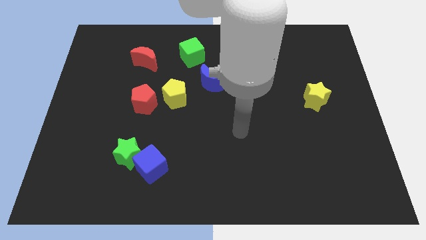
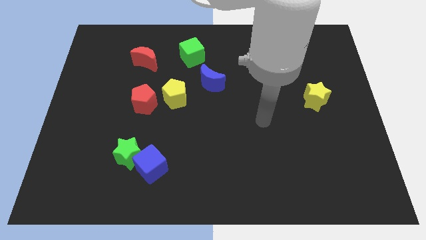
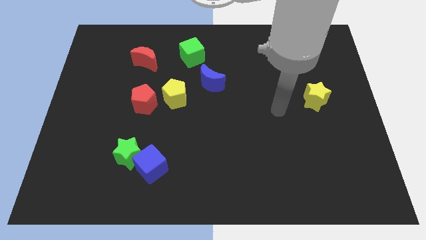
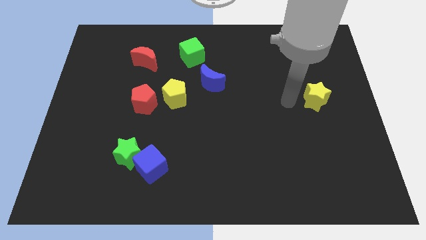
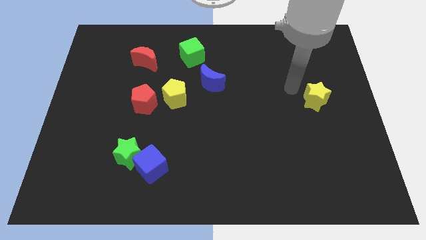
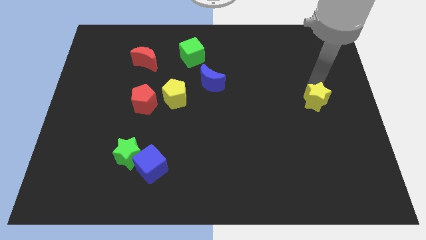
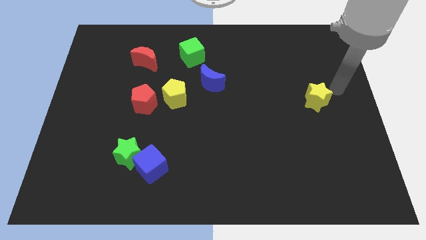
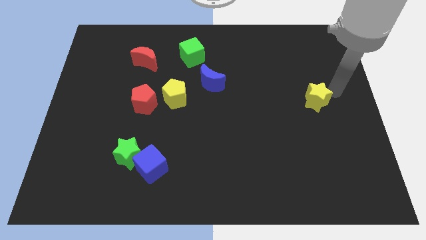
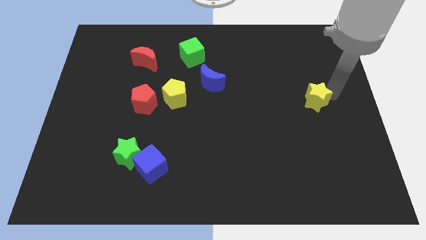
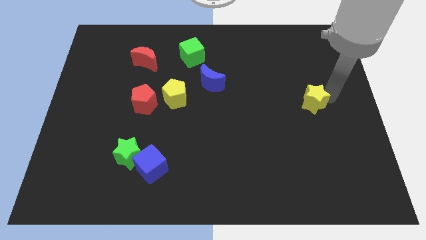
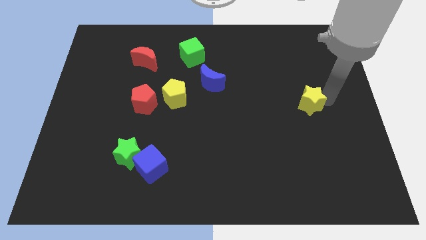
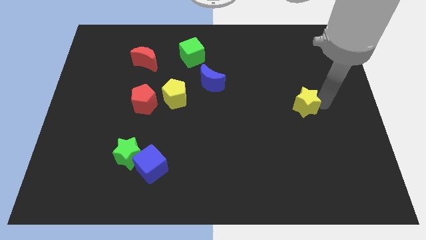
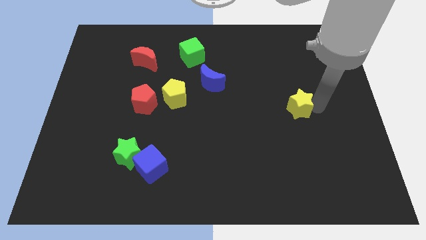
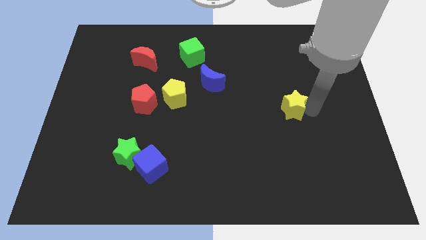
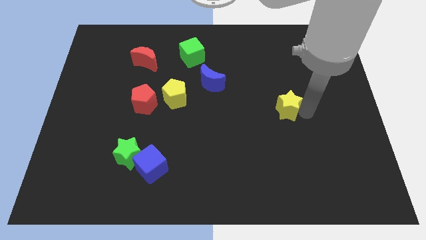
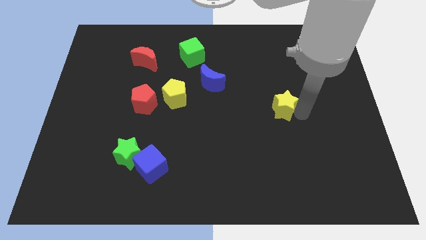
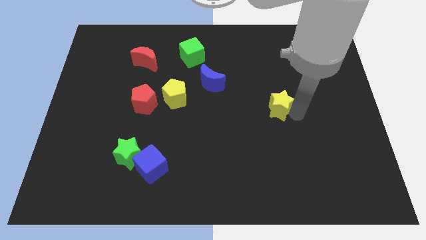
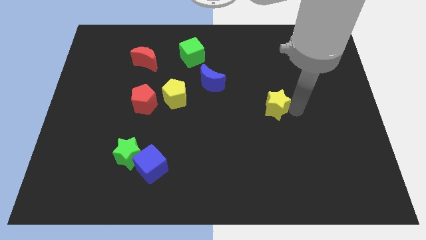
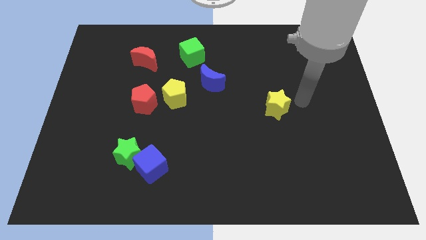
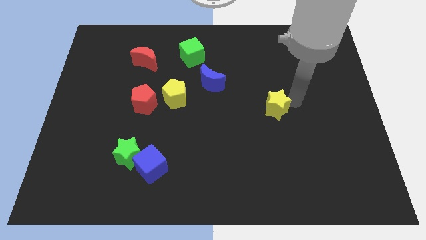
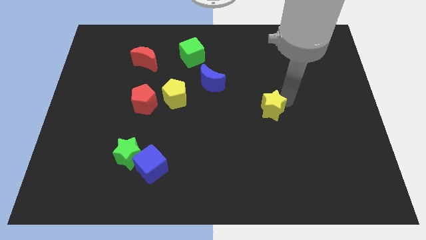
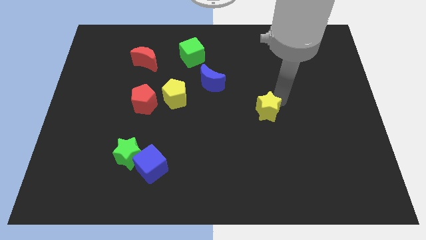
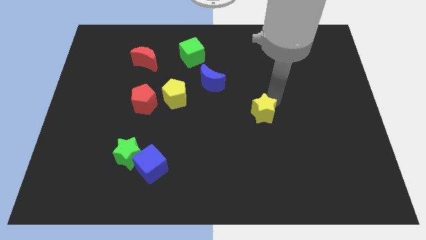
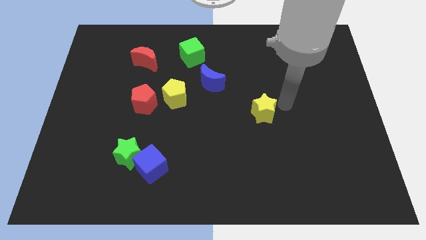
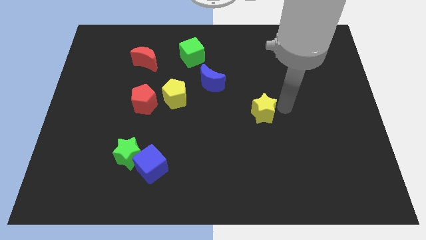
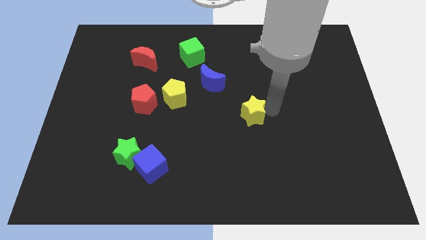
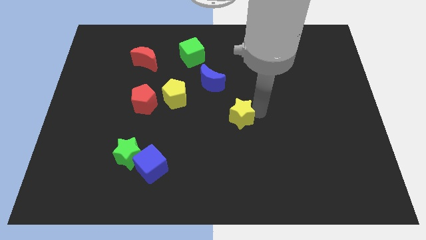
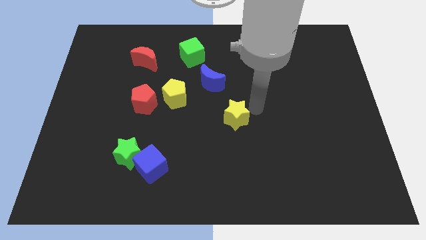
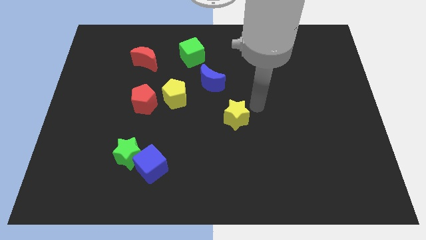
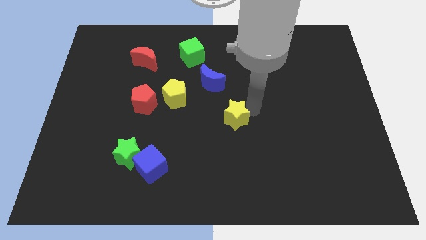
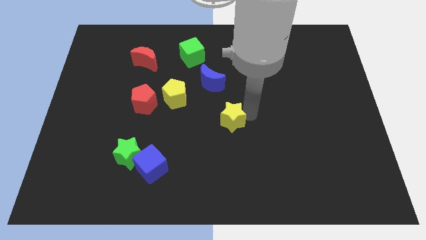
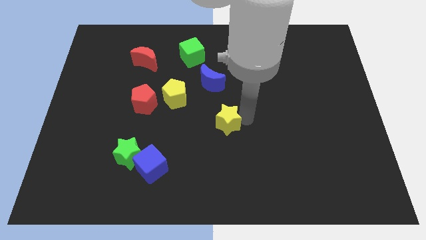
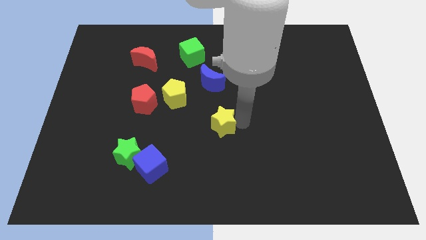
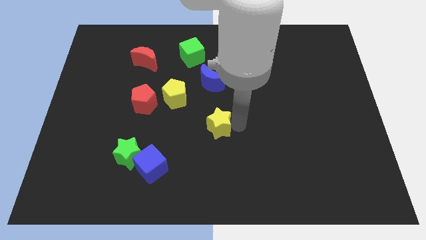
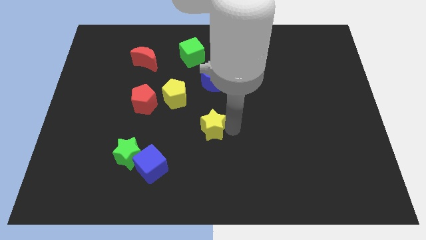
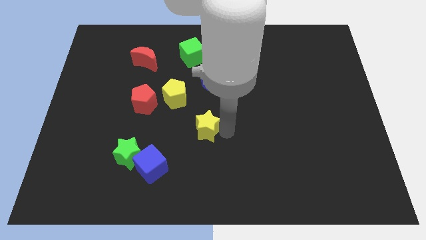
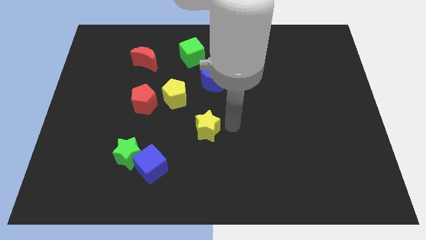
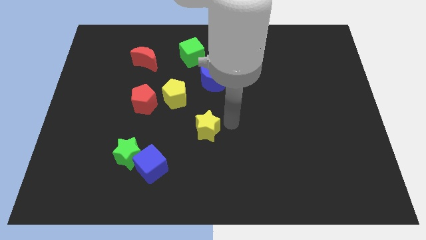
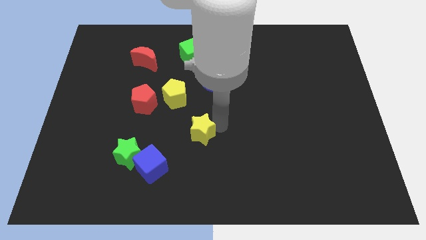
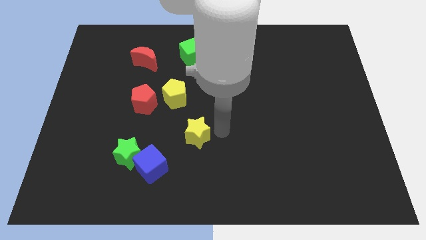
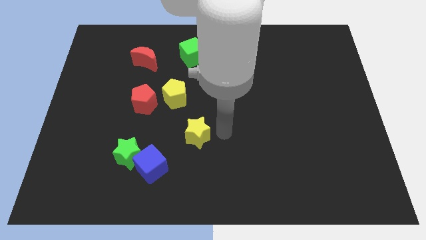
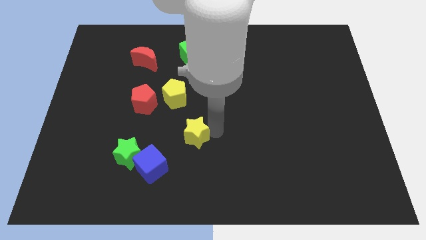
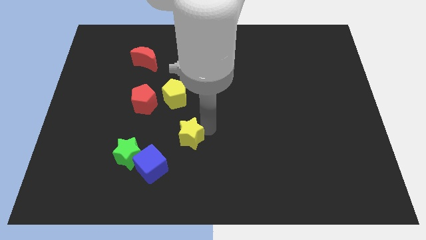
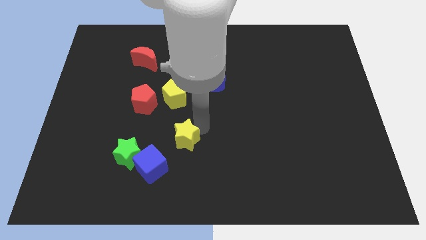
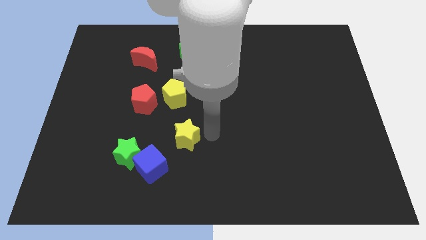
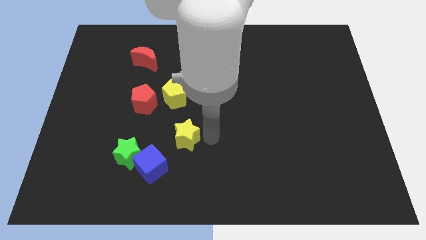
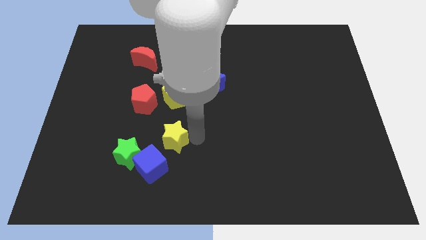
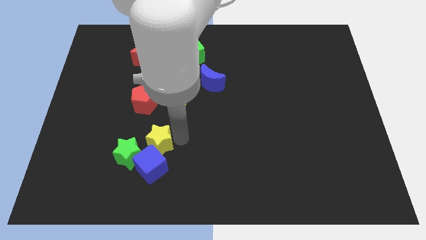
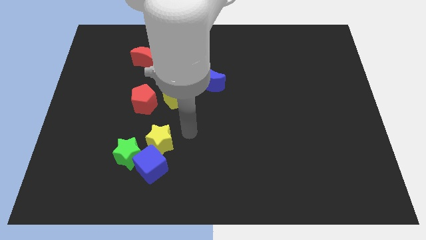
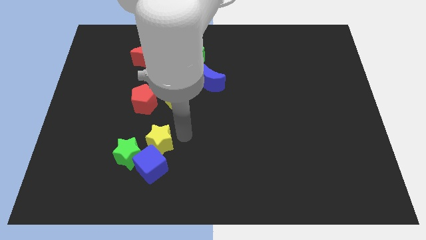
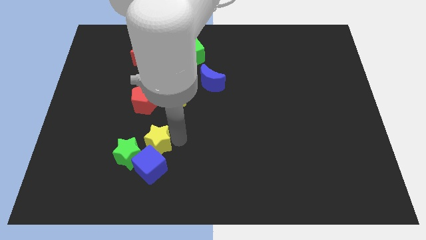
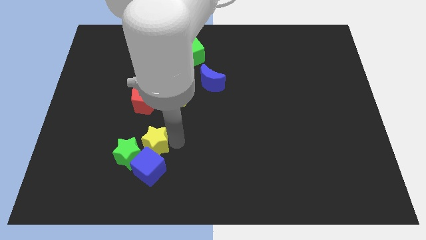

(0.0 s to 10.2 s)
slide the yellow star towards the green star

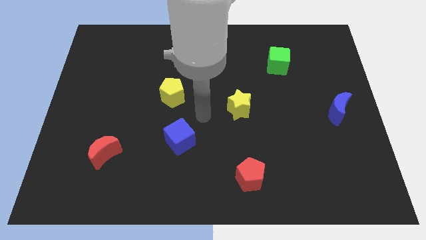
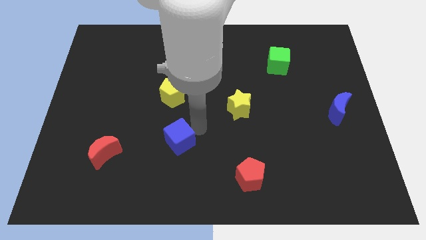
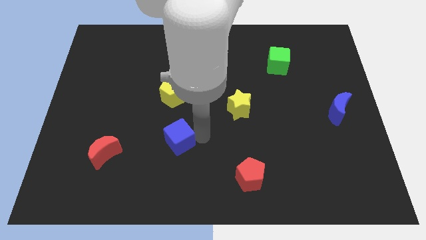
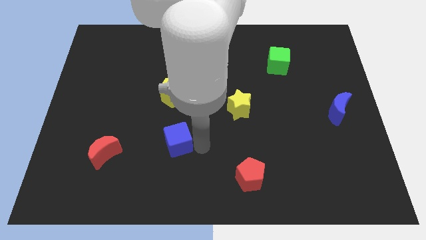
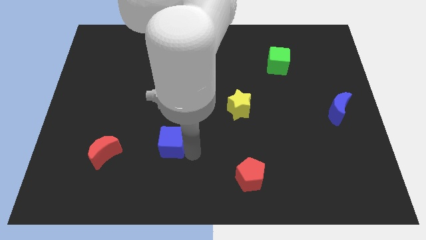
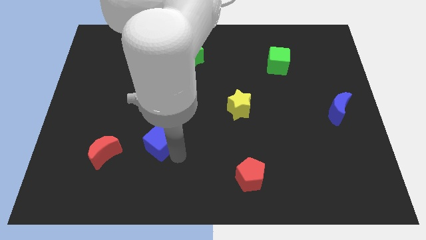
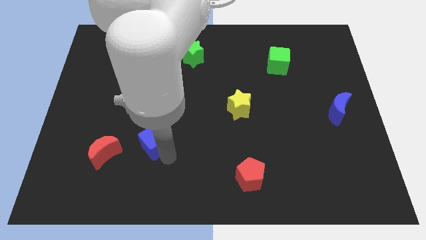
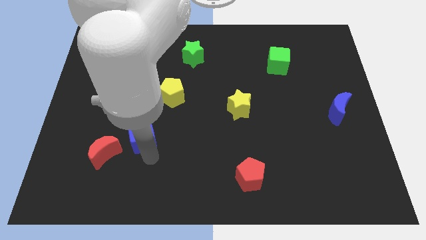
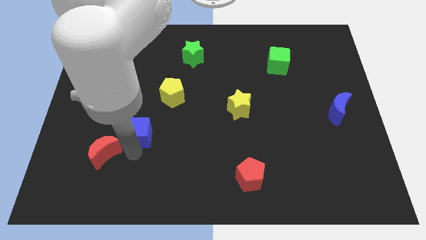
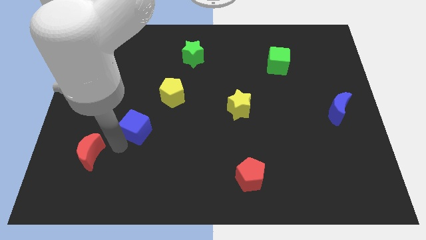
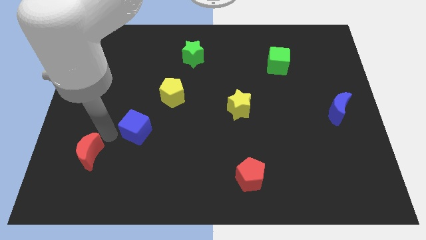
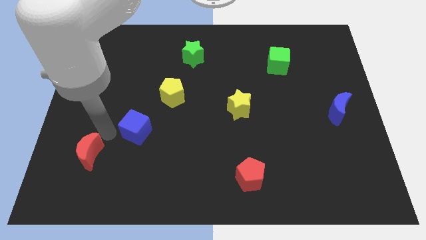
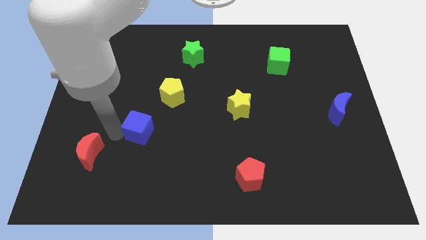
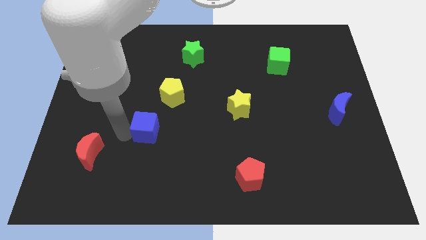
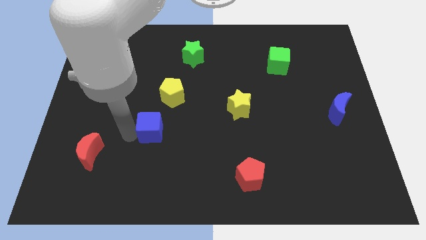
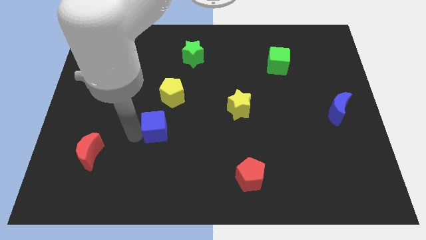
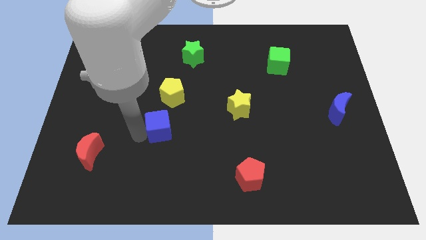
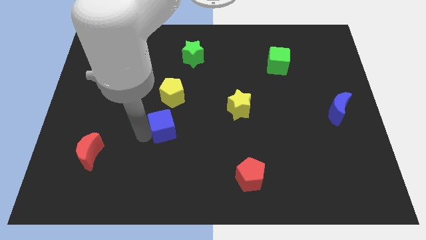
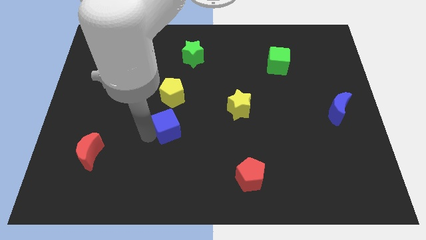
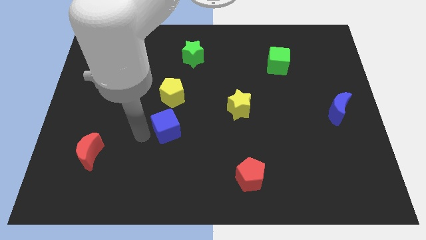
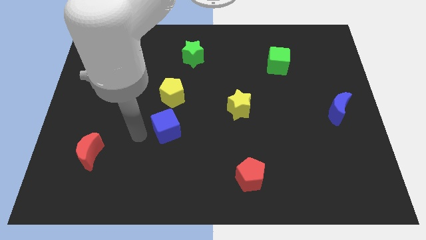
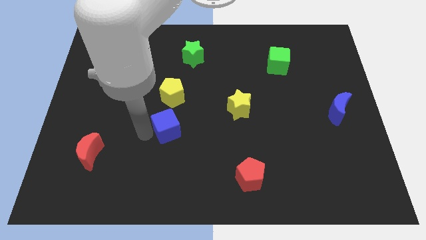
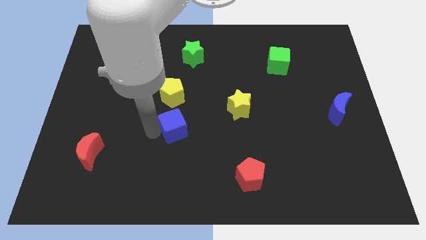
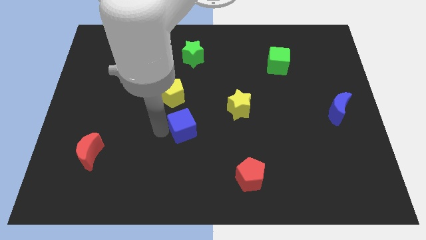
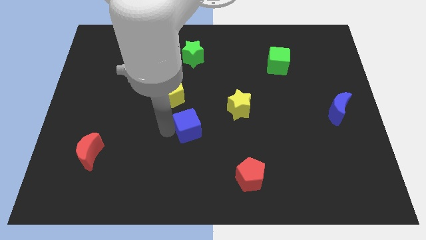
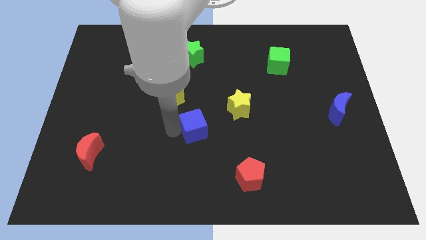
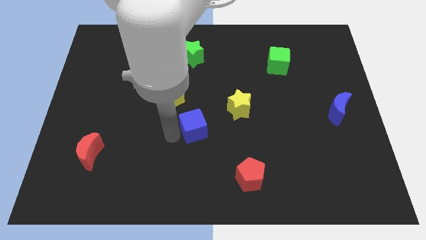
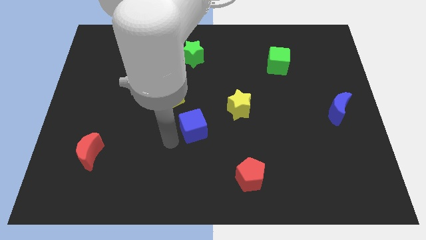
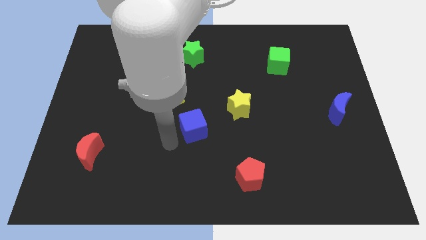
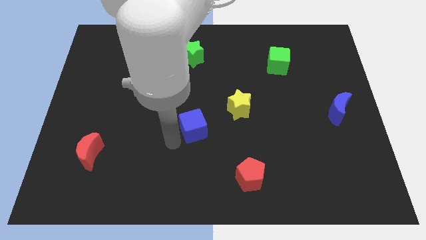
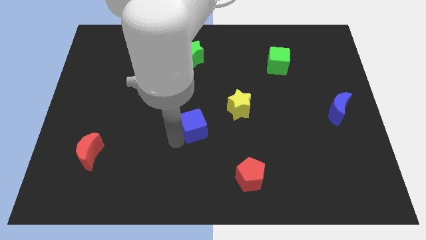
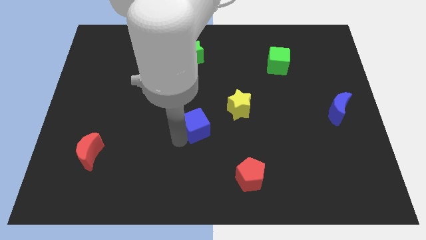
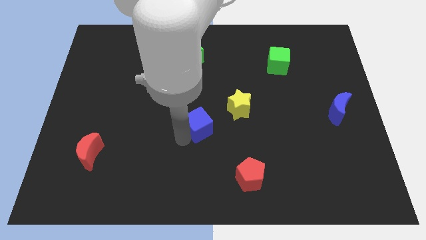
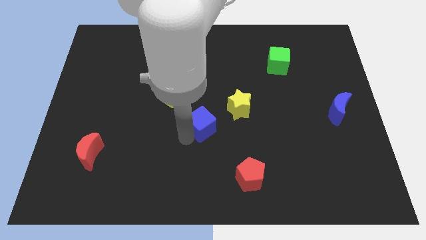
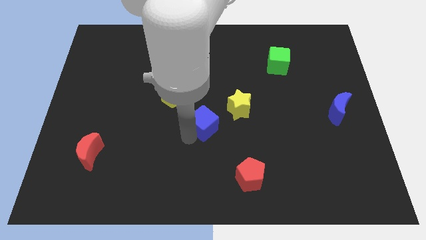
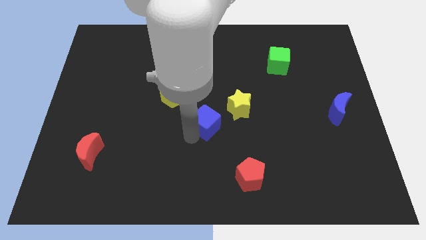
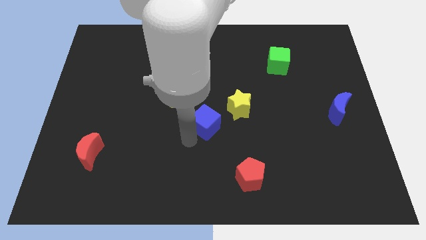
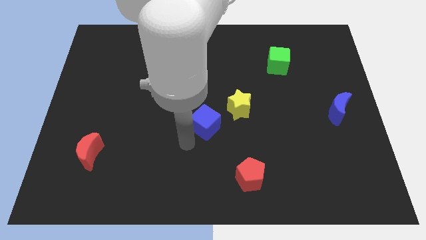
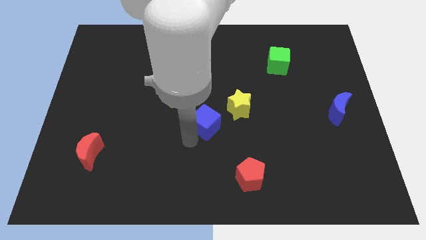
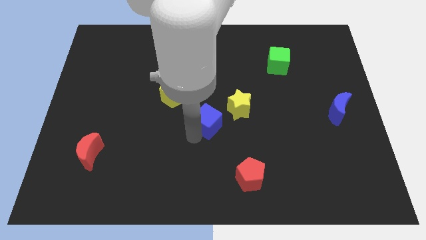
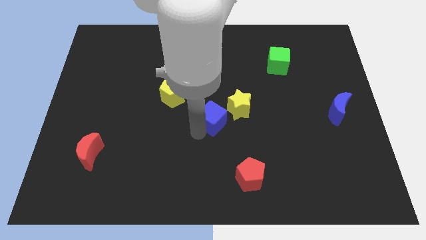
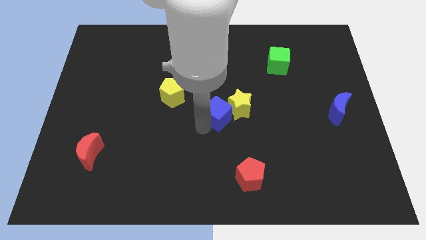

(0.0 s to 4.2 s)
move the blue cube towards the yellow star
